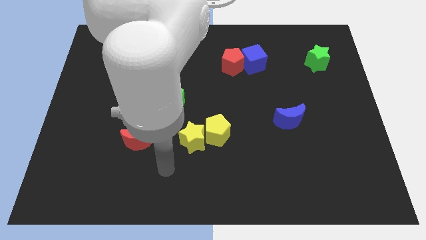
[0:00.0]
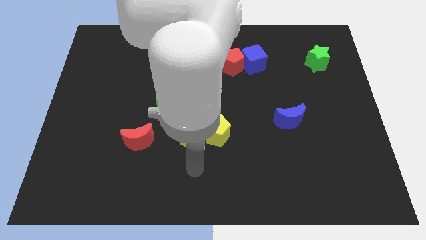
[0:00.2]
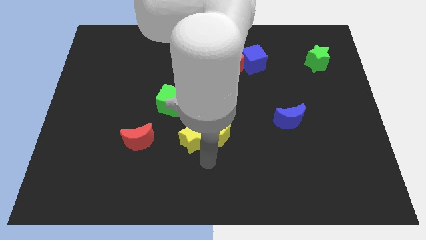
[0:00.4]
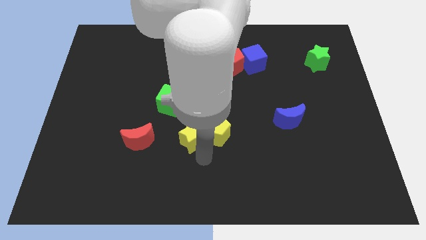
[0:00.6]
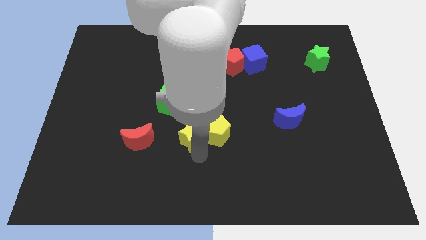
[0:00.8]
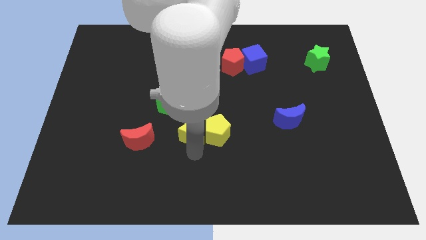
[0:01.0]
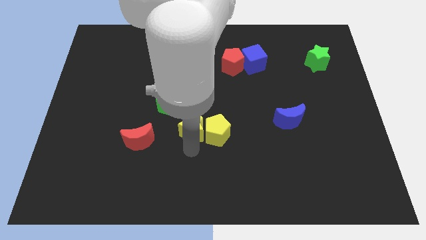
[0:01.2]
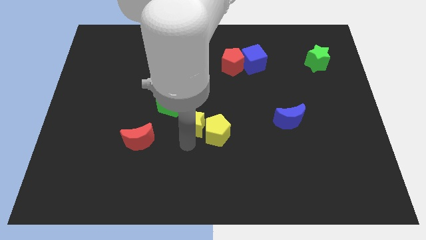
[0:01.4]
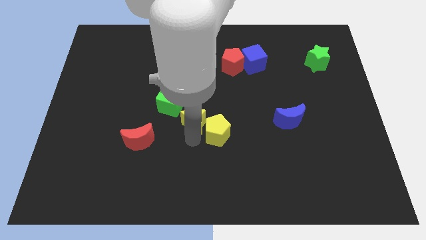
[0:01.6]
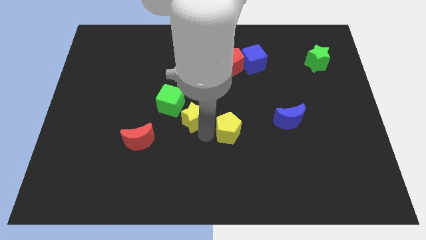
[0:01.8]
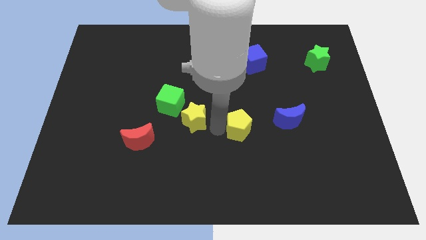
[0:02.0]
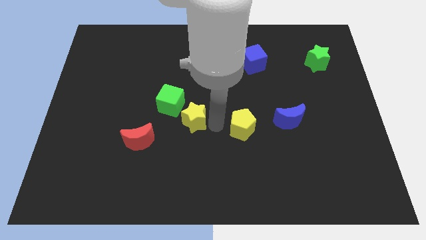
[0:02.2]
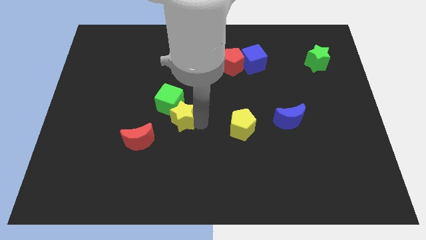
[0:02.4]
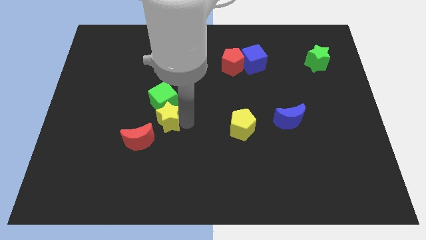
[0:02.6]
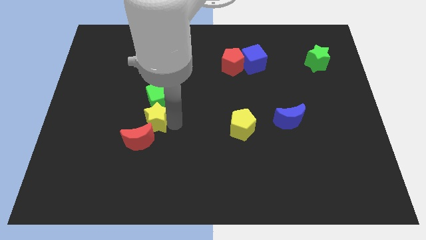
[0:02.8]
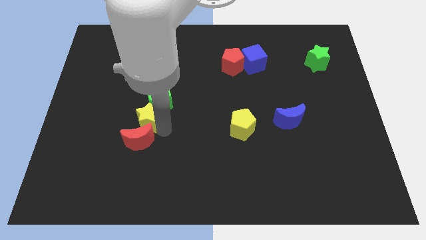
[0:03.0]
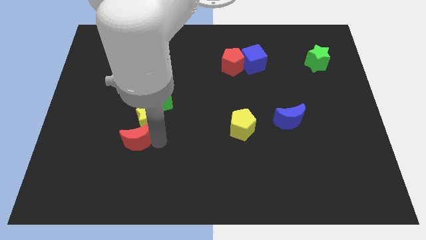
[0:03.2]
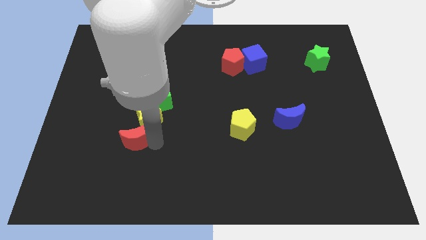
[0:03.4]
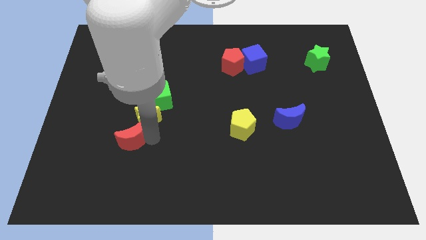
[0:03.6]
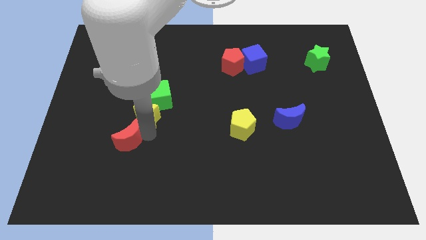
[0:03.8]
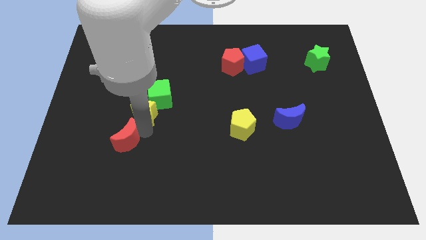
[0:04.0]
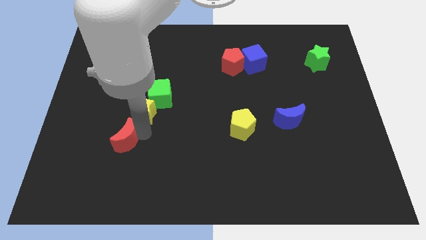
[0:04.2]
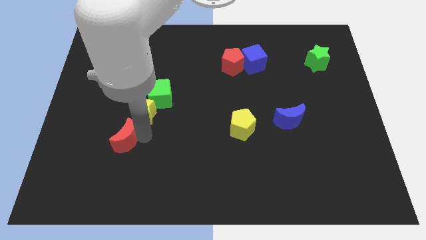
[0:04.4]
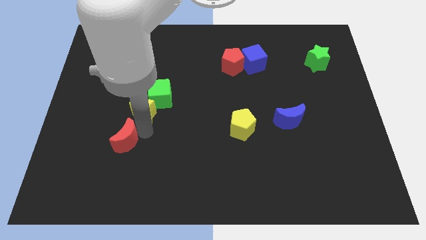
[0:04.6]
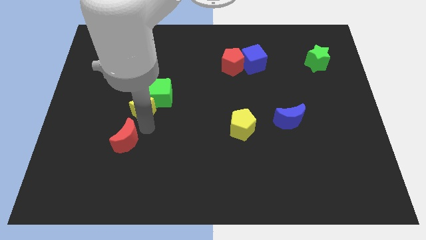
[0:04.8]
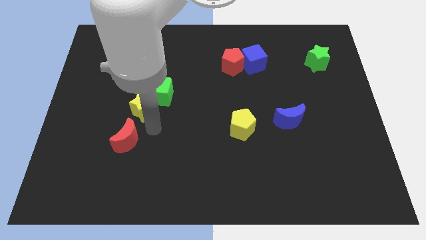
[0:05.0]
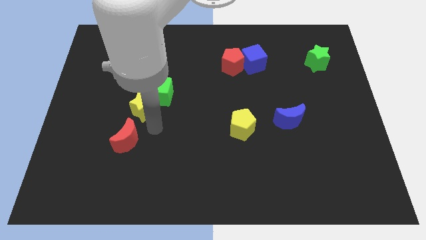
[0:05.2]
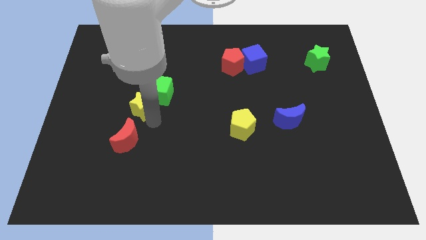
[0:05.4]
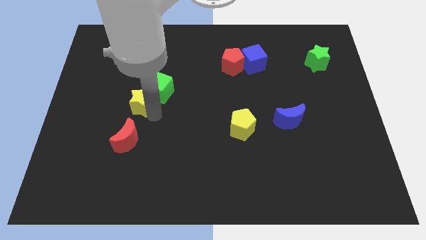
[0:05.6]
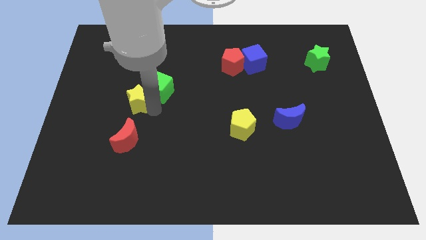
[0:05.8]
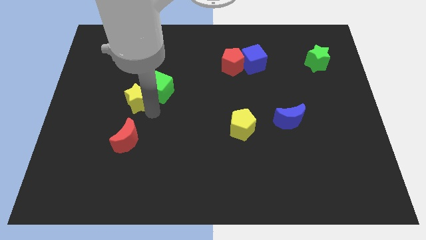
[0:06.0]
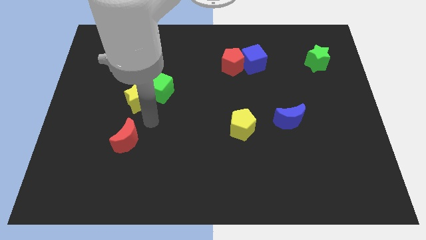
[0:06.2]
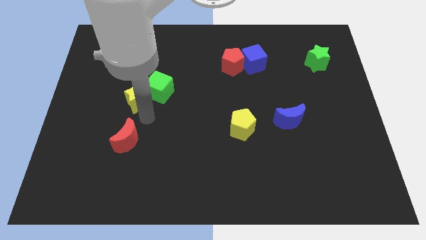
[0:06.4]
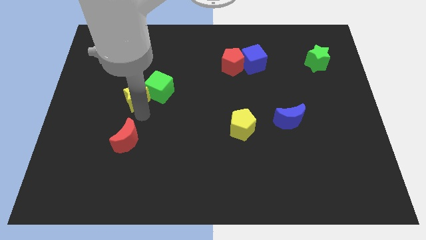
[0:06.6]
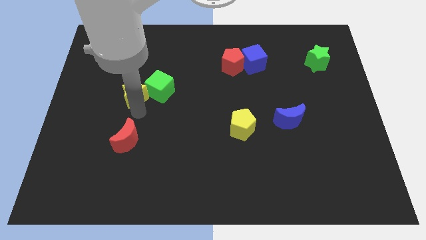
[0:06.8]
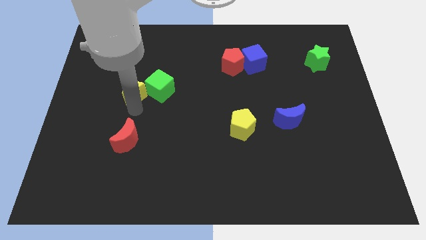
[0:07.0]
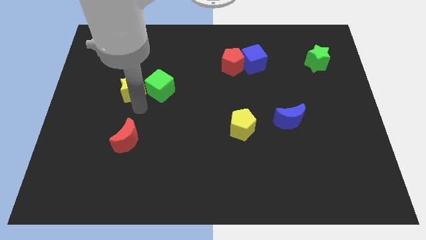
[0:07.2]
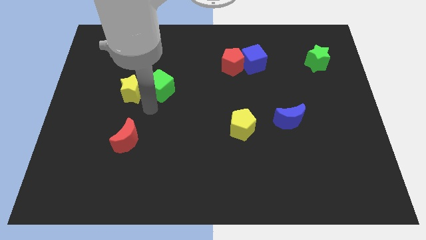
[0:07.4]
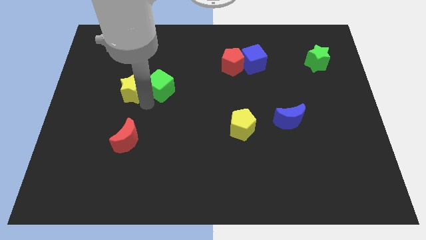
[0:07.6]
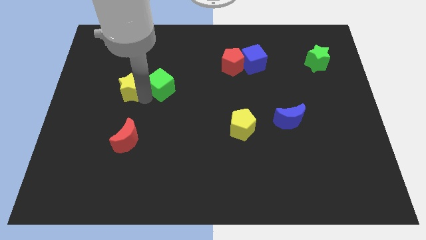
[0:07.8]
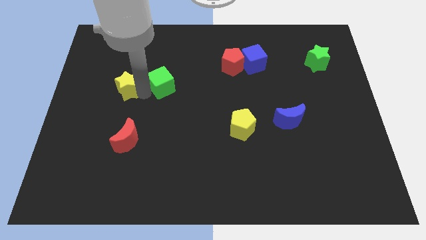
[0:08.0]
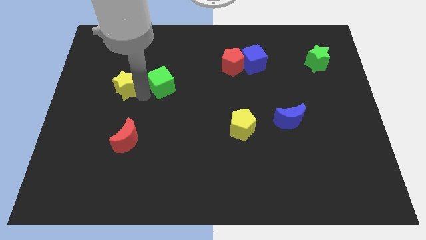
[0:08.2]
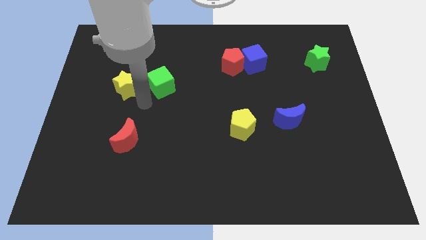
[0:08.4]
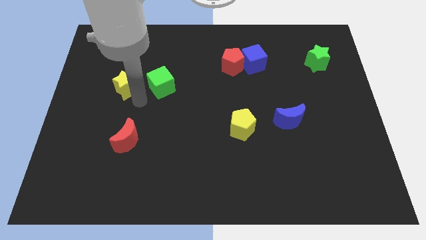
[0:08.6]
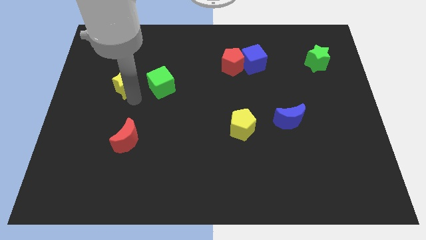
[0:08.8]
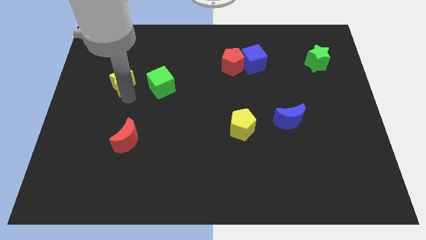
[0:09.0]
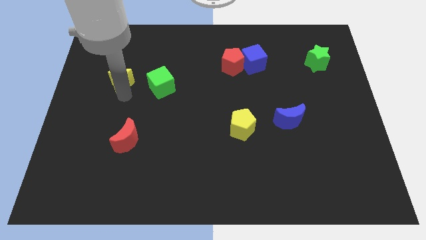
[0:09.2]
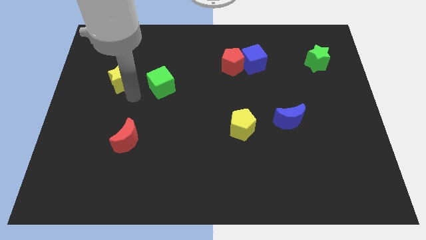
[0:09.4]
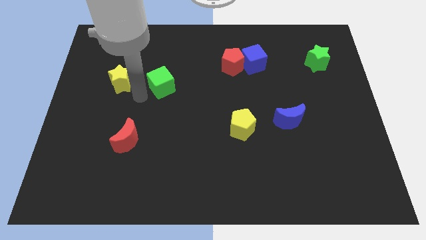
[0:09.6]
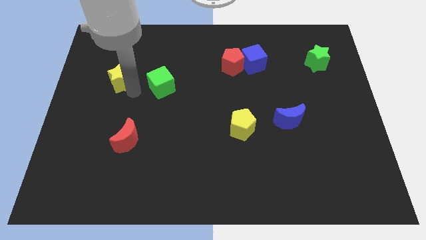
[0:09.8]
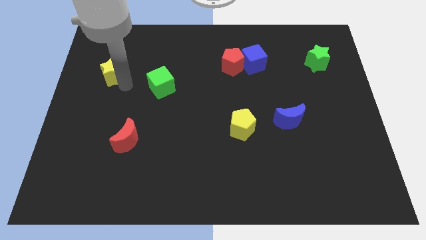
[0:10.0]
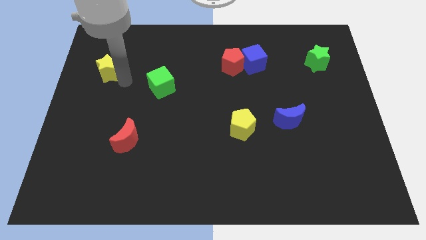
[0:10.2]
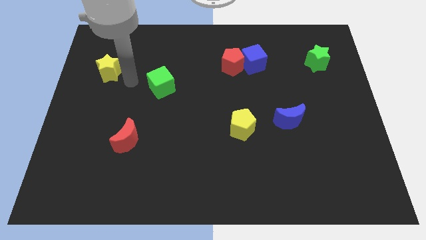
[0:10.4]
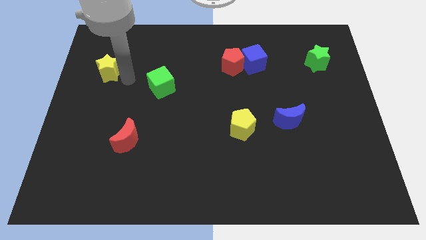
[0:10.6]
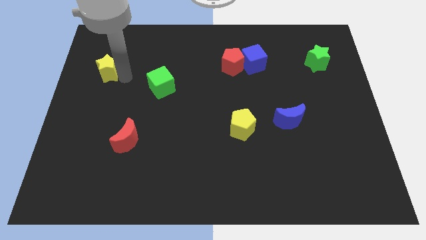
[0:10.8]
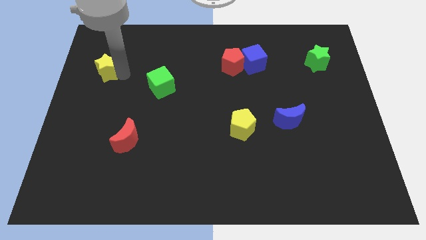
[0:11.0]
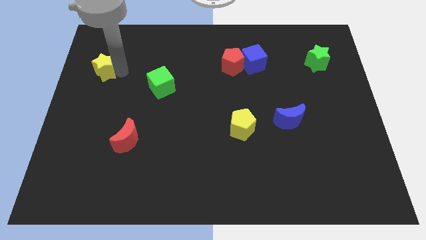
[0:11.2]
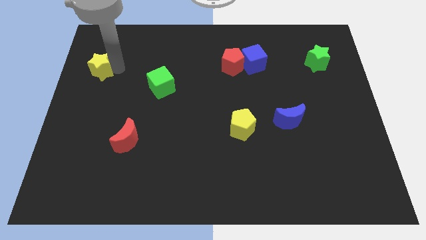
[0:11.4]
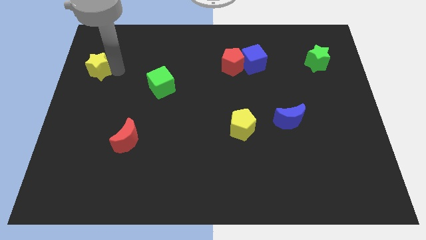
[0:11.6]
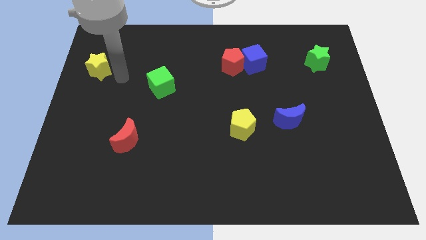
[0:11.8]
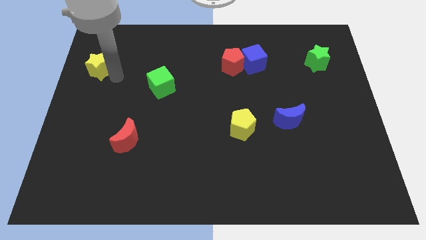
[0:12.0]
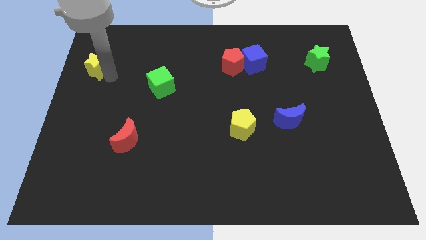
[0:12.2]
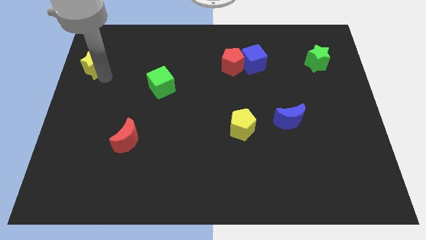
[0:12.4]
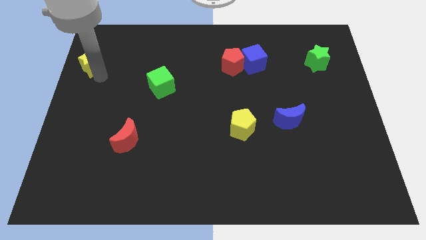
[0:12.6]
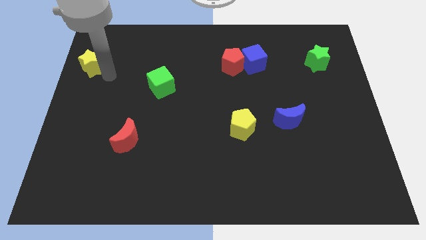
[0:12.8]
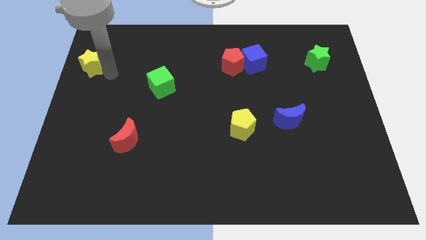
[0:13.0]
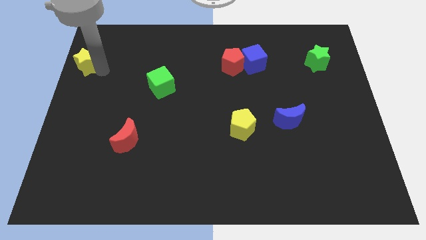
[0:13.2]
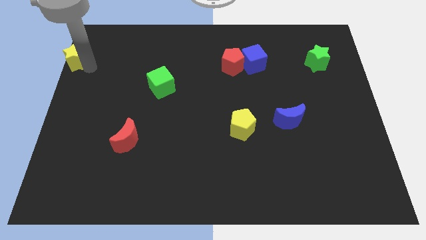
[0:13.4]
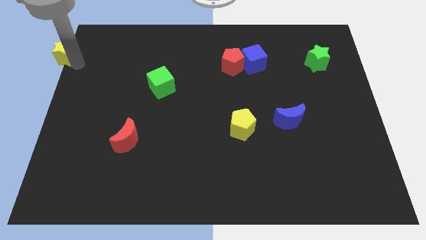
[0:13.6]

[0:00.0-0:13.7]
move the yellow star to the top left corner
